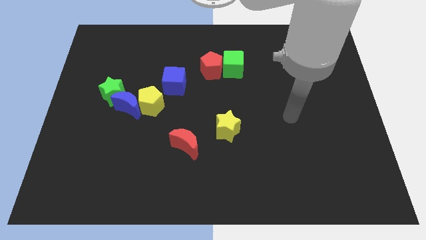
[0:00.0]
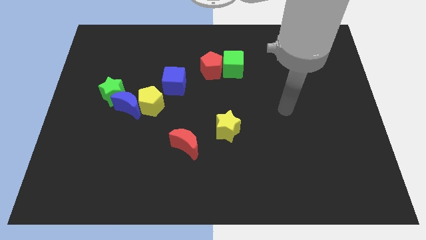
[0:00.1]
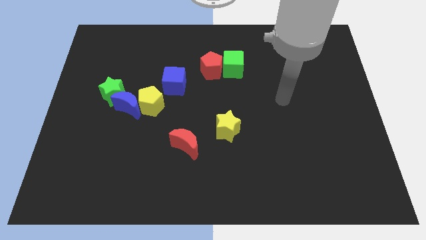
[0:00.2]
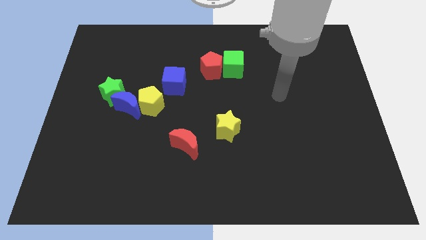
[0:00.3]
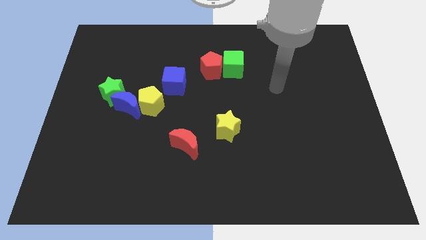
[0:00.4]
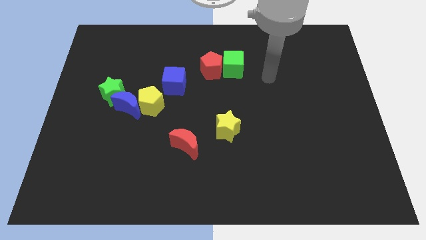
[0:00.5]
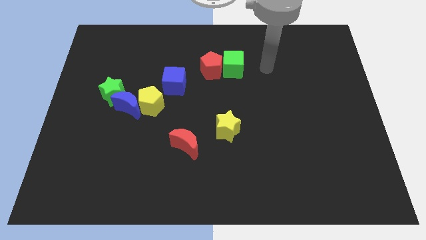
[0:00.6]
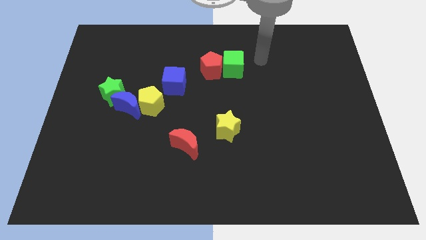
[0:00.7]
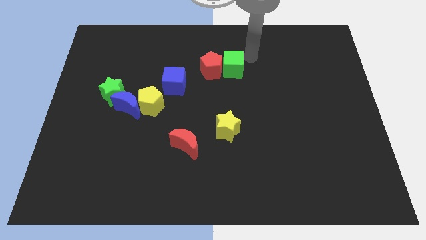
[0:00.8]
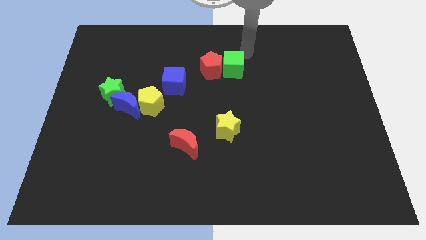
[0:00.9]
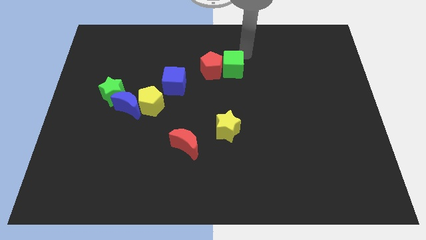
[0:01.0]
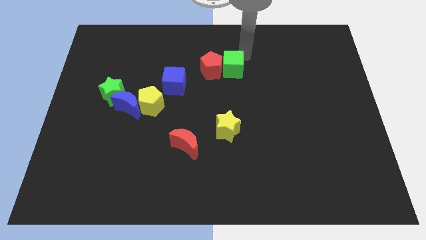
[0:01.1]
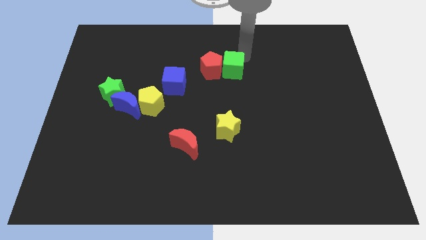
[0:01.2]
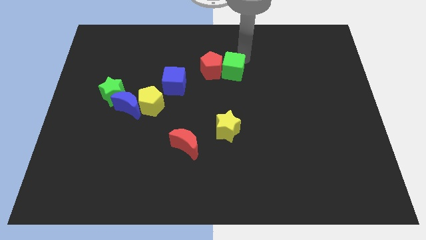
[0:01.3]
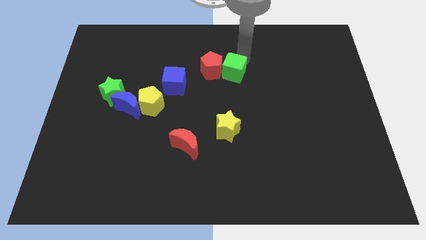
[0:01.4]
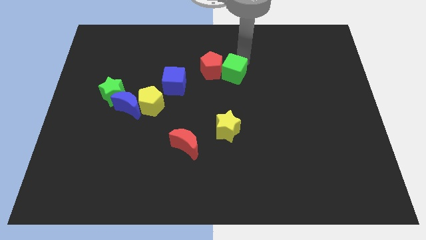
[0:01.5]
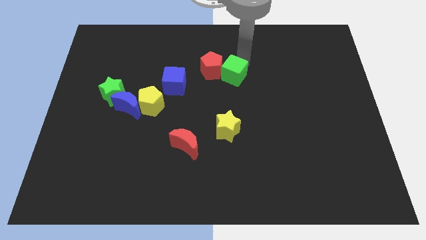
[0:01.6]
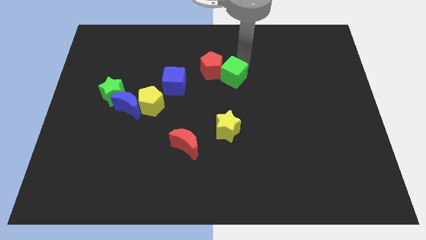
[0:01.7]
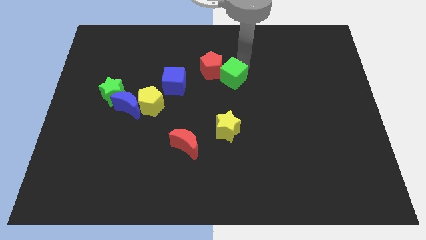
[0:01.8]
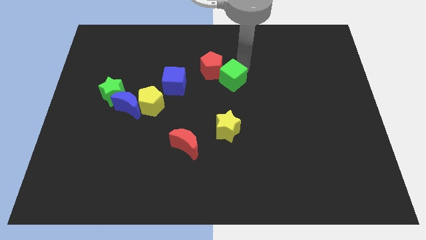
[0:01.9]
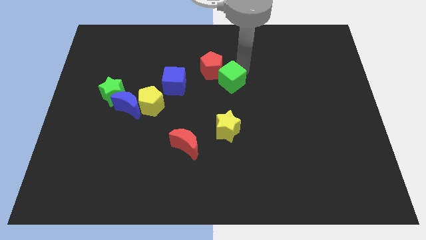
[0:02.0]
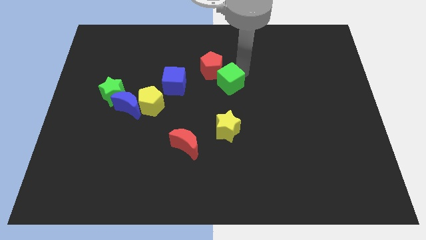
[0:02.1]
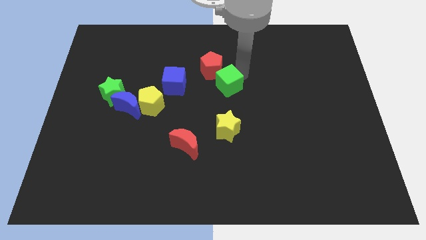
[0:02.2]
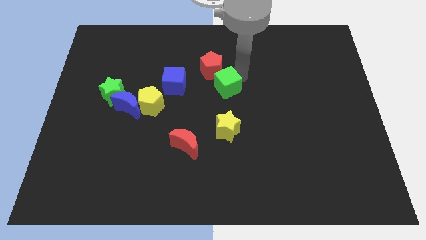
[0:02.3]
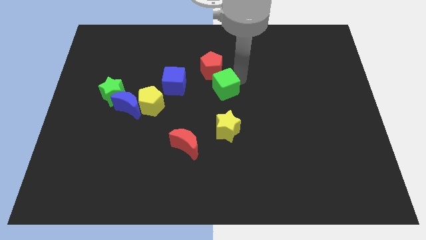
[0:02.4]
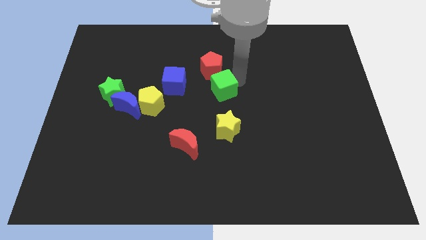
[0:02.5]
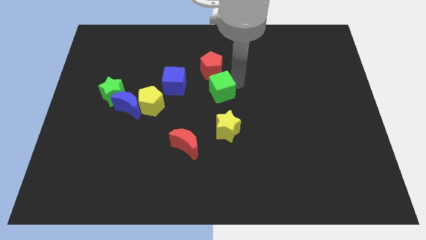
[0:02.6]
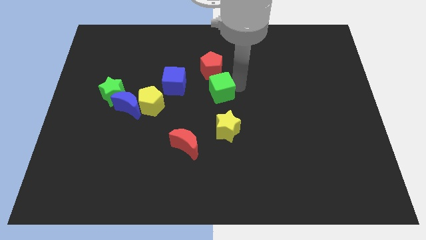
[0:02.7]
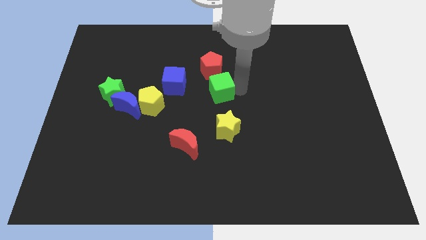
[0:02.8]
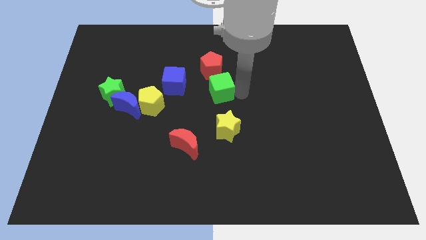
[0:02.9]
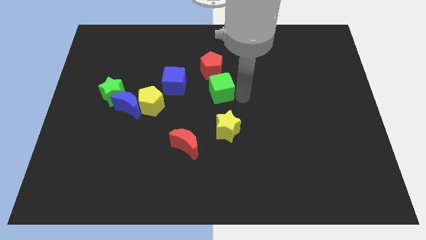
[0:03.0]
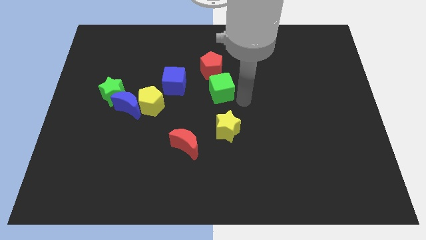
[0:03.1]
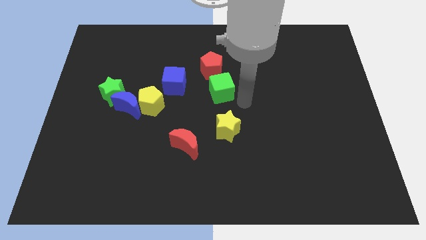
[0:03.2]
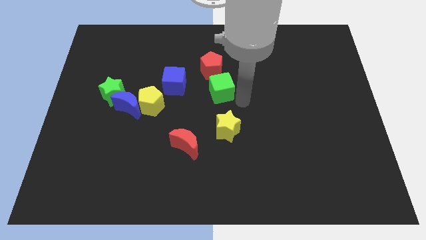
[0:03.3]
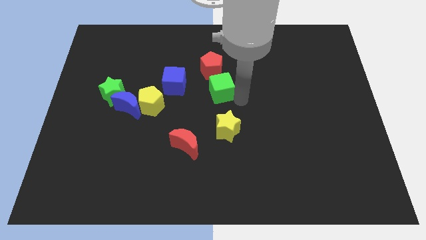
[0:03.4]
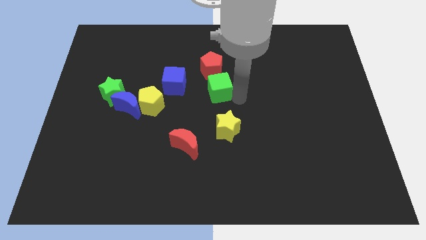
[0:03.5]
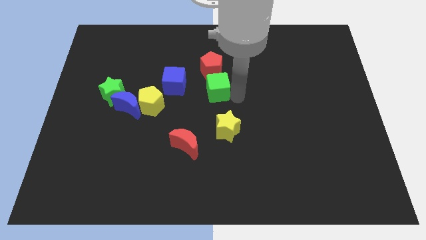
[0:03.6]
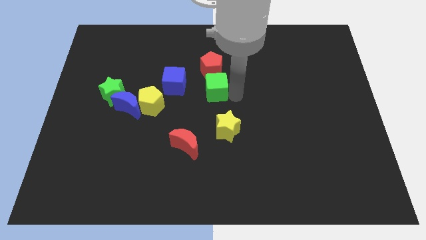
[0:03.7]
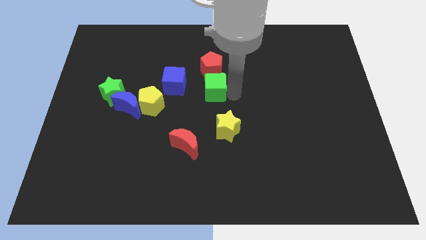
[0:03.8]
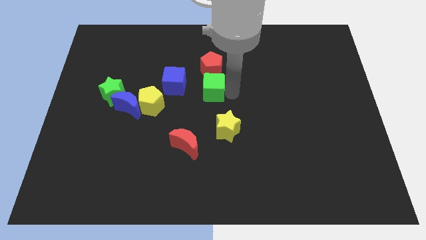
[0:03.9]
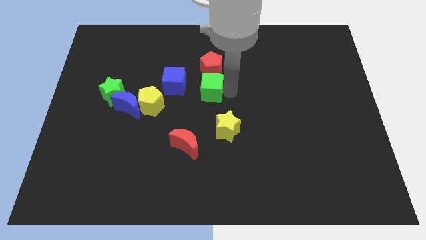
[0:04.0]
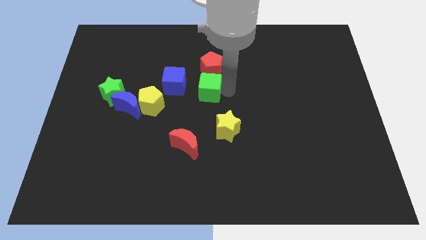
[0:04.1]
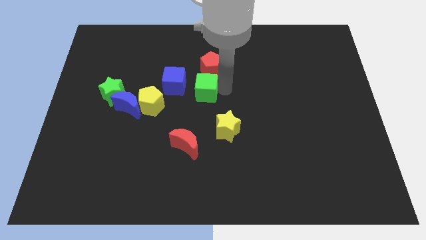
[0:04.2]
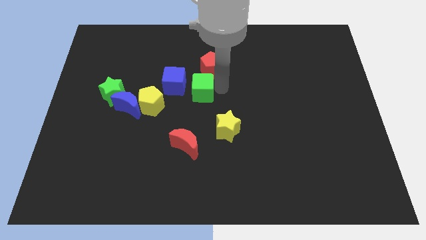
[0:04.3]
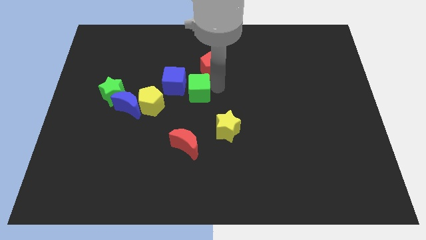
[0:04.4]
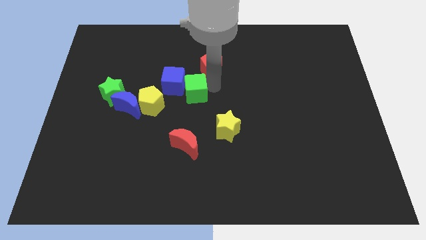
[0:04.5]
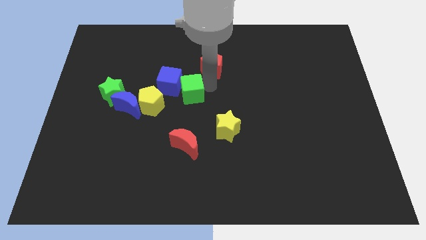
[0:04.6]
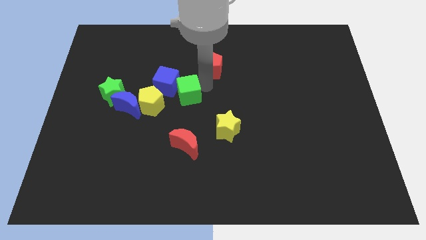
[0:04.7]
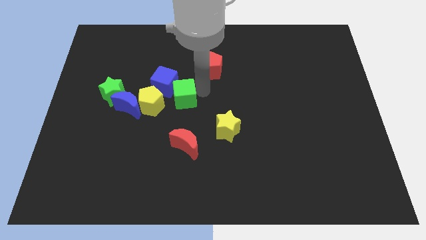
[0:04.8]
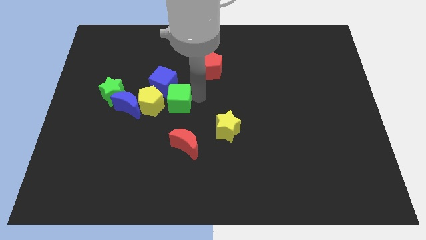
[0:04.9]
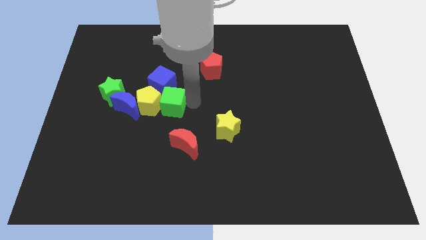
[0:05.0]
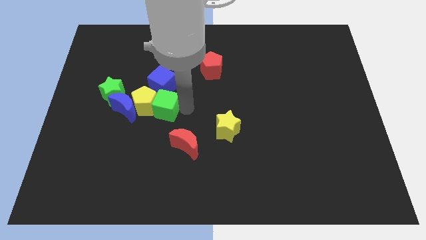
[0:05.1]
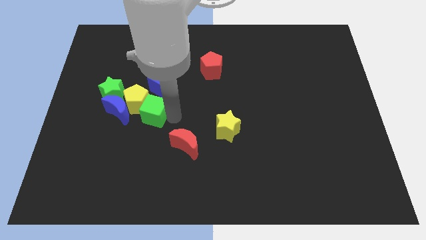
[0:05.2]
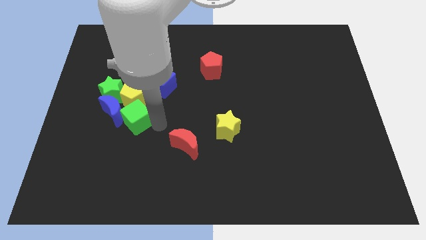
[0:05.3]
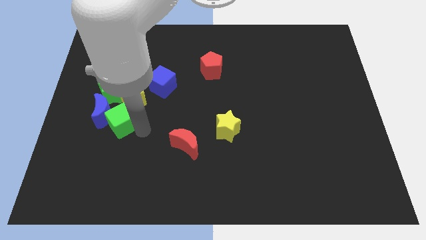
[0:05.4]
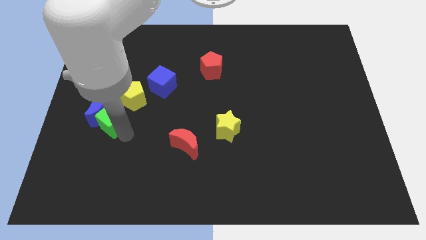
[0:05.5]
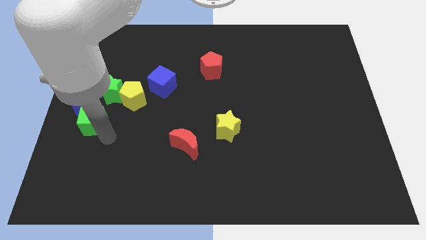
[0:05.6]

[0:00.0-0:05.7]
push the green cube to the left side of the board

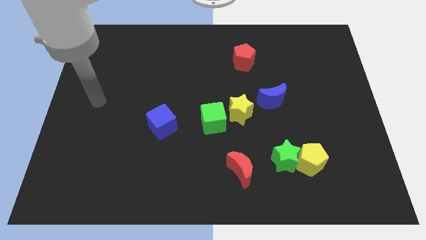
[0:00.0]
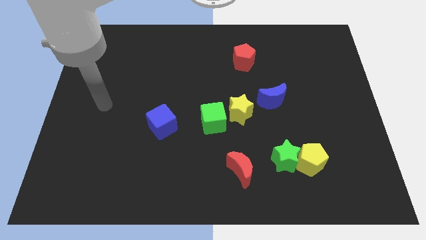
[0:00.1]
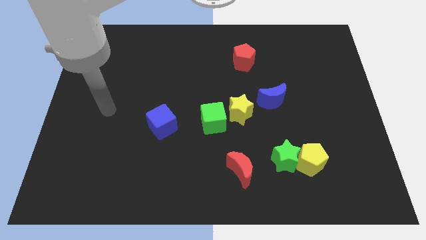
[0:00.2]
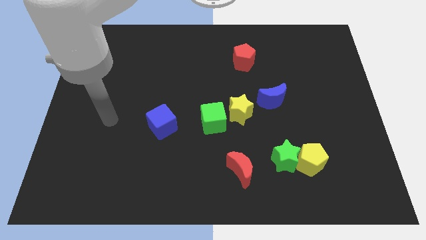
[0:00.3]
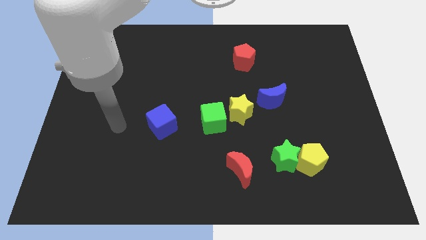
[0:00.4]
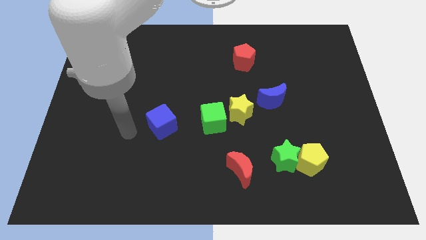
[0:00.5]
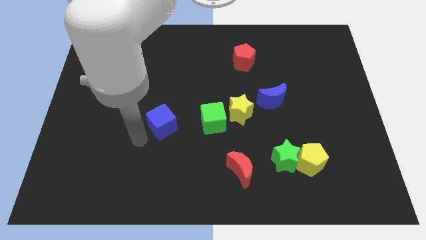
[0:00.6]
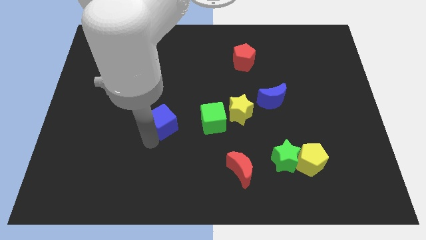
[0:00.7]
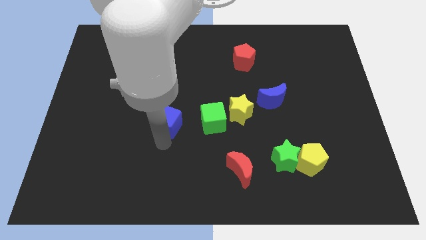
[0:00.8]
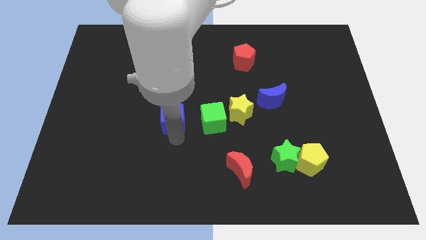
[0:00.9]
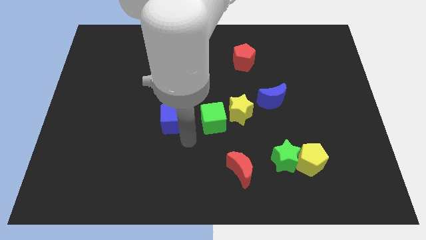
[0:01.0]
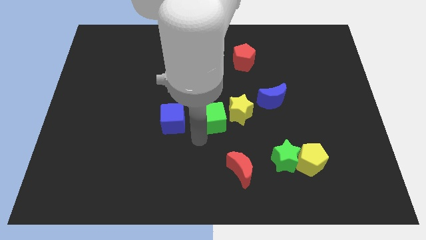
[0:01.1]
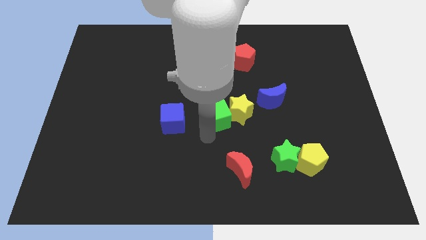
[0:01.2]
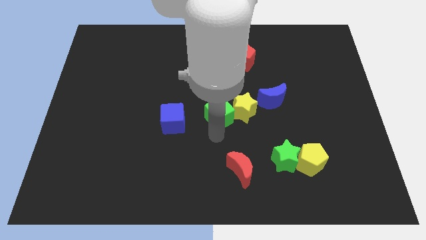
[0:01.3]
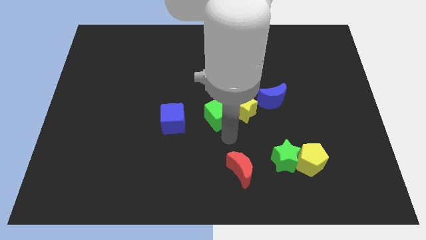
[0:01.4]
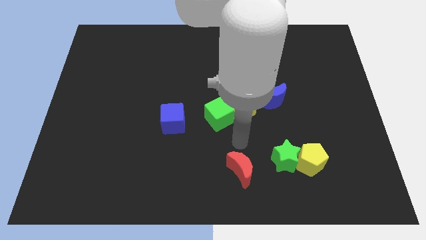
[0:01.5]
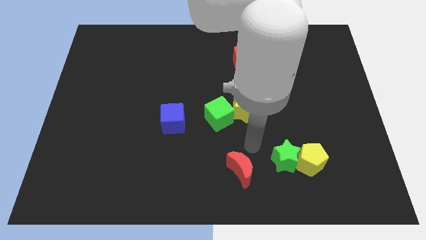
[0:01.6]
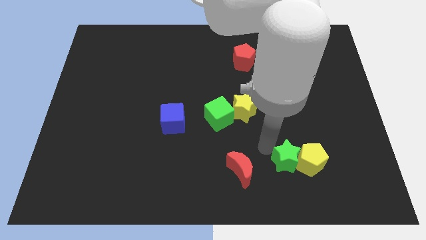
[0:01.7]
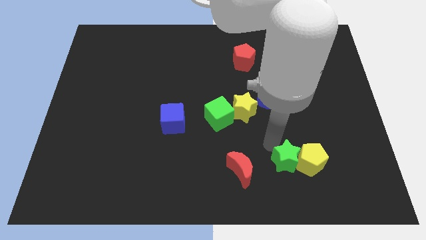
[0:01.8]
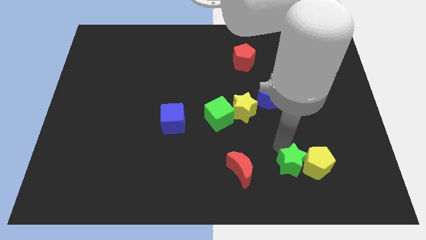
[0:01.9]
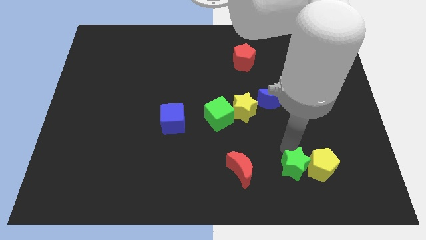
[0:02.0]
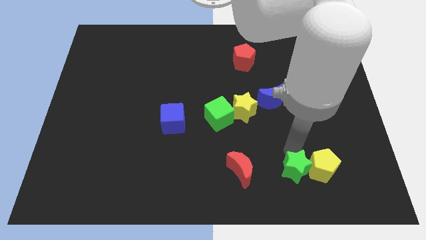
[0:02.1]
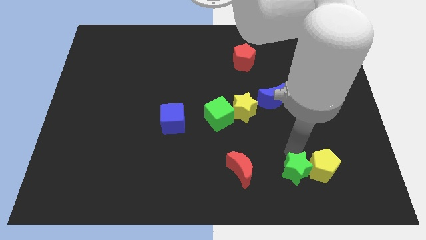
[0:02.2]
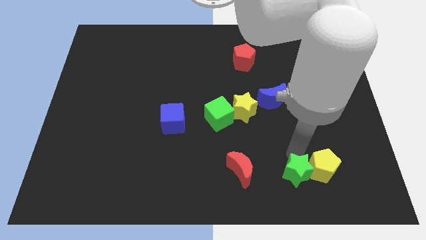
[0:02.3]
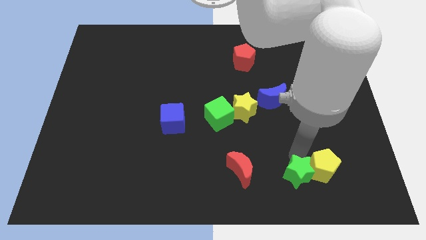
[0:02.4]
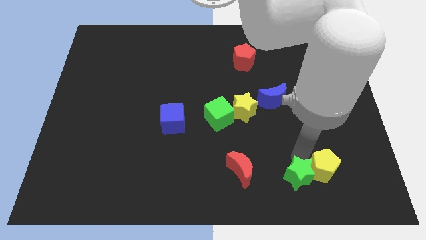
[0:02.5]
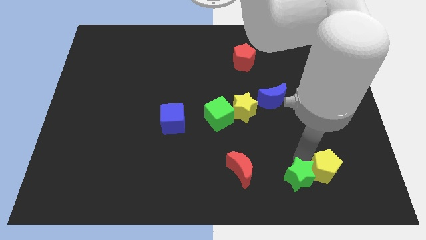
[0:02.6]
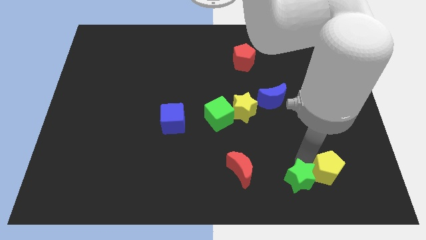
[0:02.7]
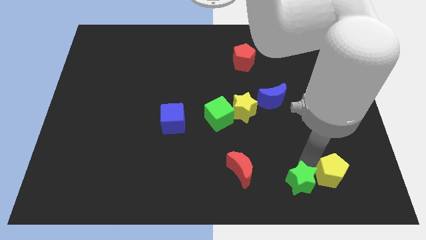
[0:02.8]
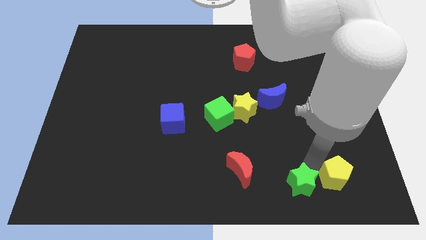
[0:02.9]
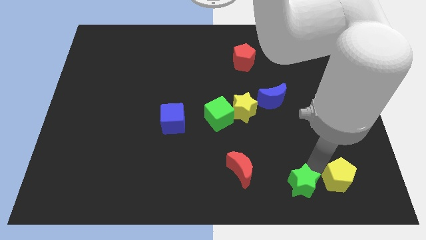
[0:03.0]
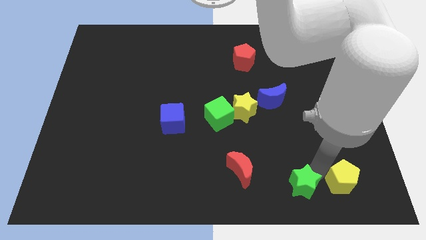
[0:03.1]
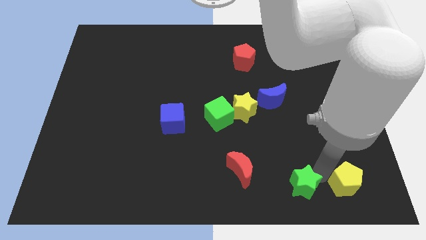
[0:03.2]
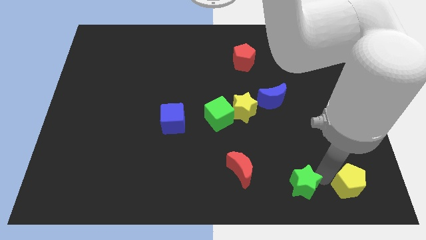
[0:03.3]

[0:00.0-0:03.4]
push the yellow pentagon to the lower right corner
